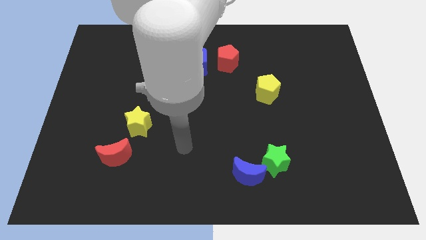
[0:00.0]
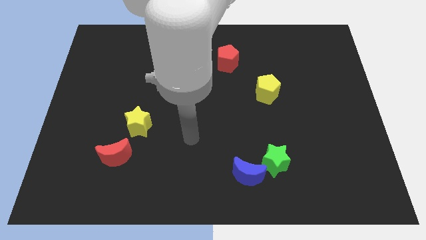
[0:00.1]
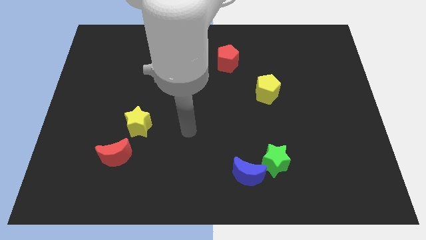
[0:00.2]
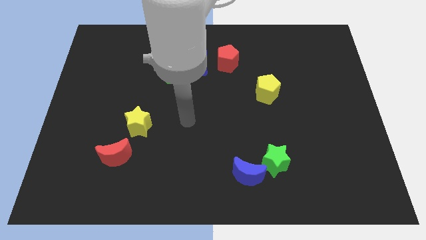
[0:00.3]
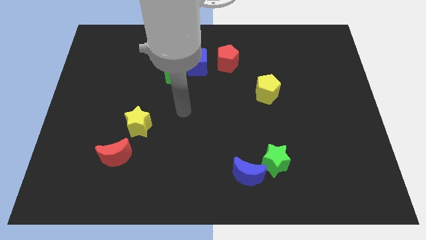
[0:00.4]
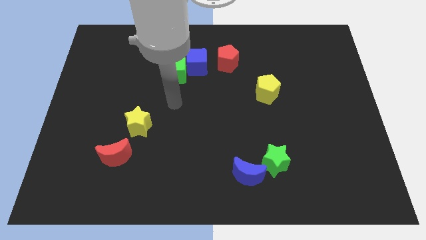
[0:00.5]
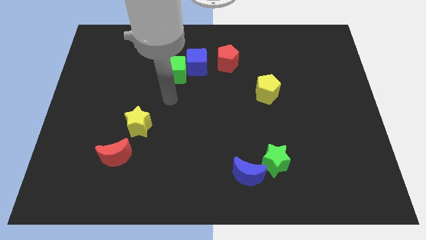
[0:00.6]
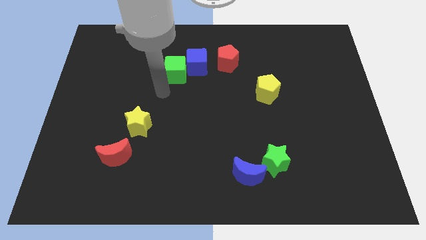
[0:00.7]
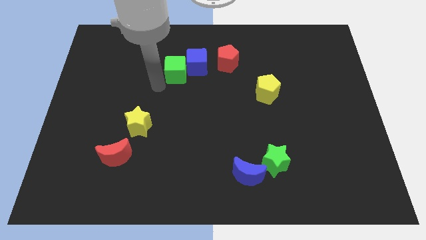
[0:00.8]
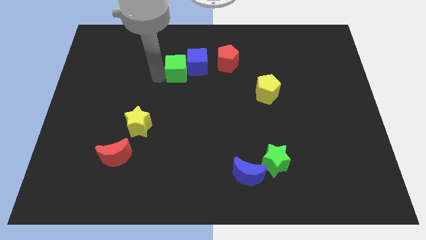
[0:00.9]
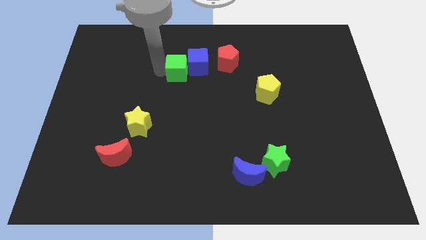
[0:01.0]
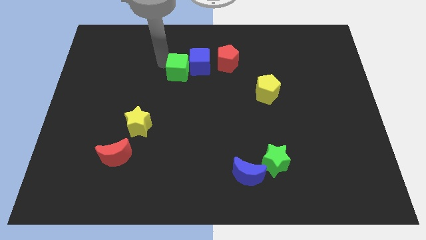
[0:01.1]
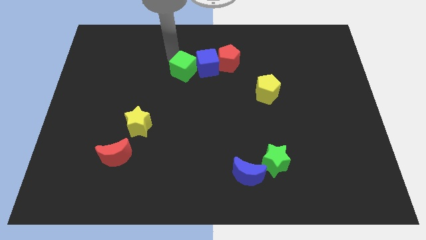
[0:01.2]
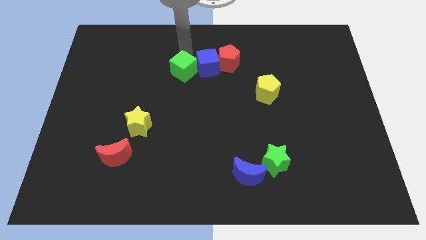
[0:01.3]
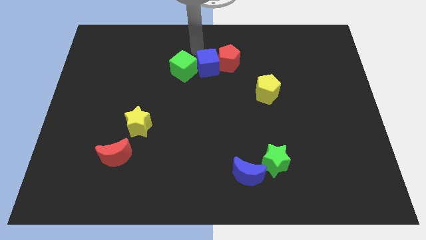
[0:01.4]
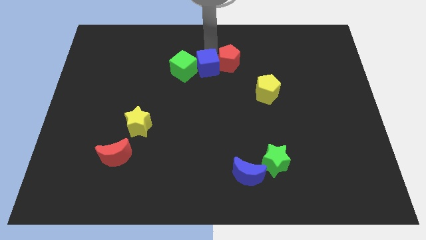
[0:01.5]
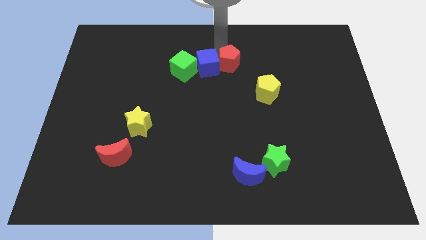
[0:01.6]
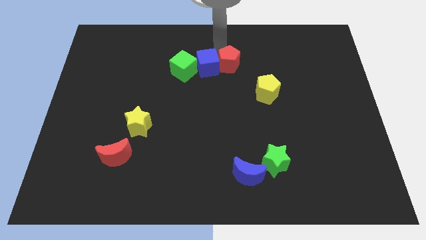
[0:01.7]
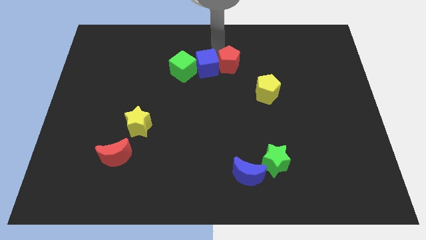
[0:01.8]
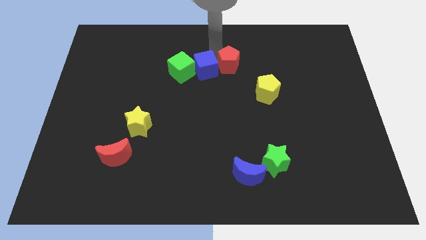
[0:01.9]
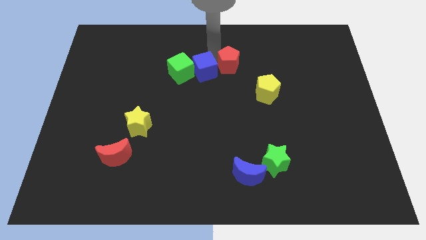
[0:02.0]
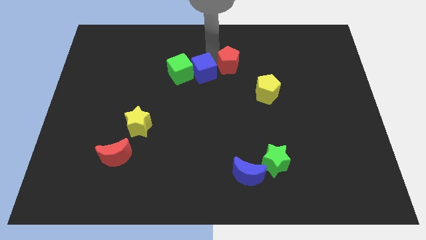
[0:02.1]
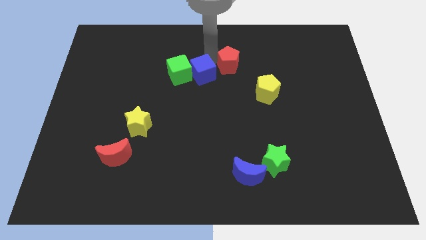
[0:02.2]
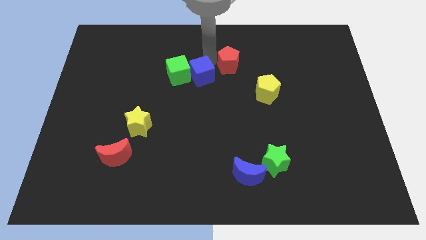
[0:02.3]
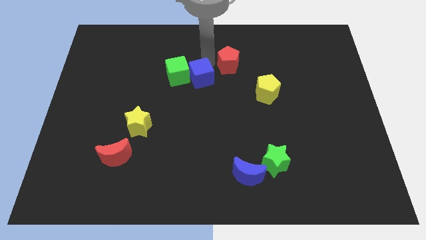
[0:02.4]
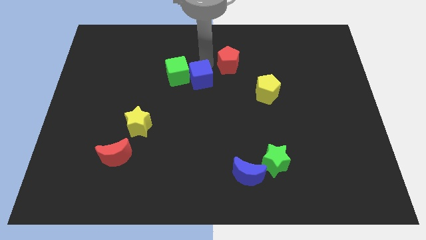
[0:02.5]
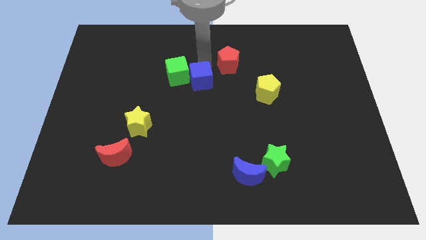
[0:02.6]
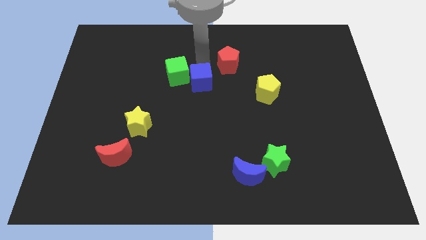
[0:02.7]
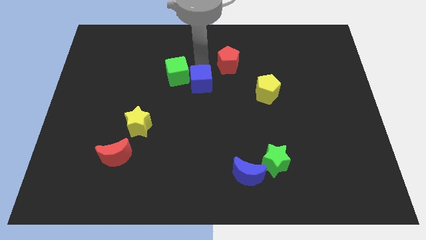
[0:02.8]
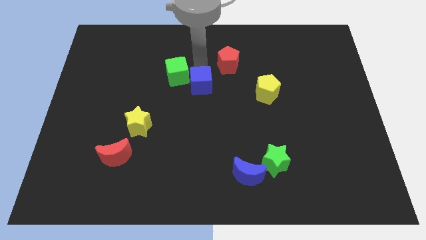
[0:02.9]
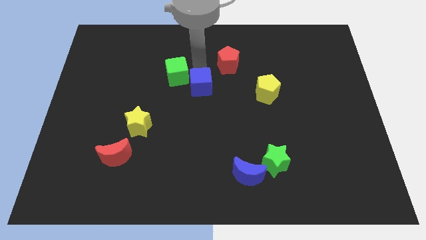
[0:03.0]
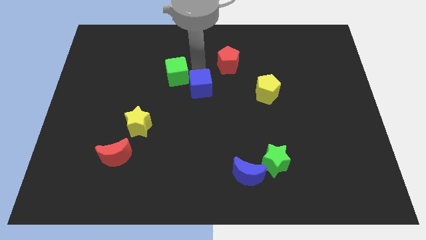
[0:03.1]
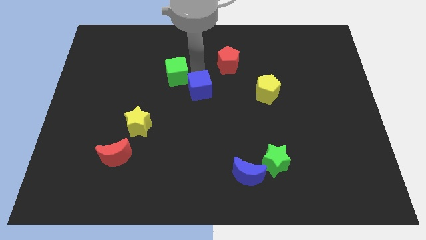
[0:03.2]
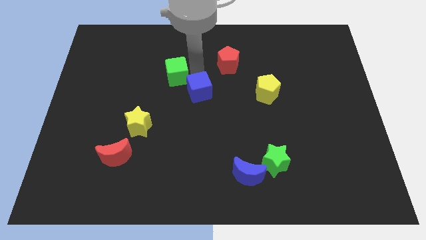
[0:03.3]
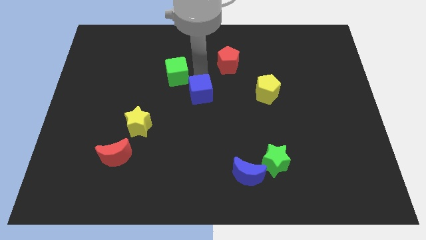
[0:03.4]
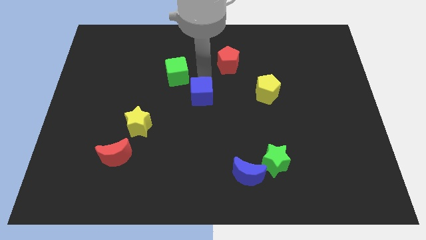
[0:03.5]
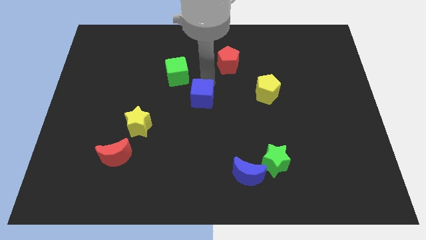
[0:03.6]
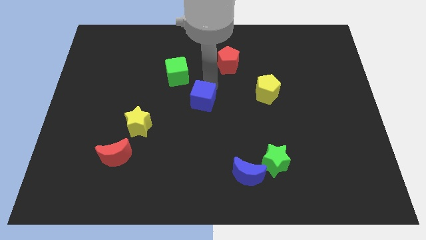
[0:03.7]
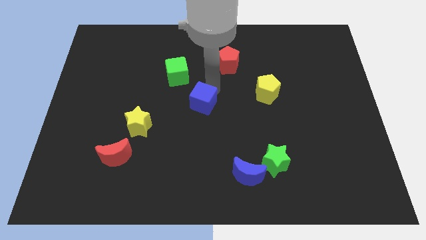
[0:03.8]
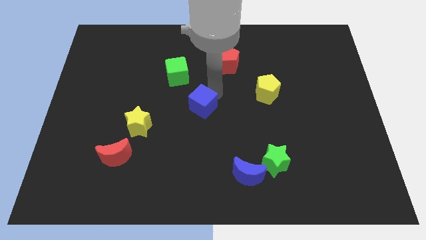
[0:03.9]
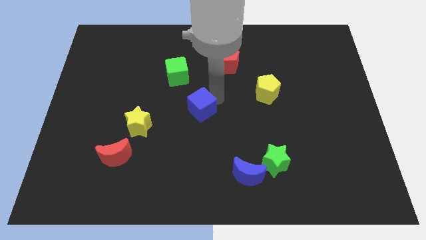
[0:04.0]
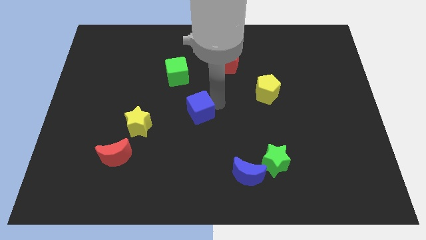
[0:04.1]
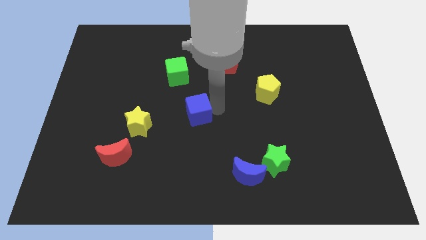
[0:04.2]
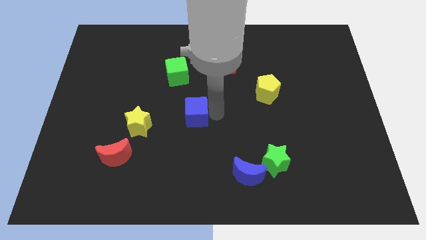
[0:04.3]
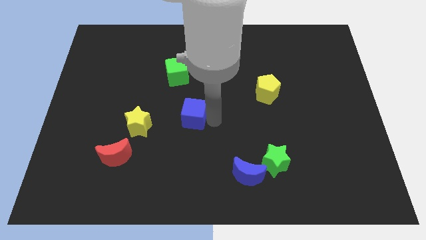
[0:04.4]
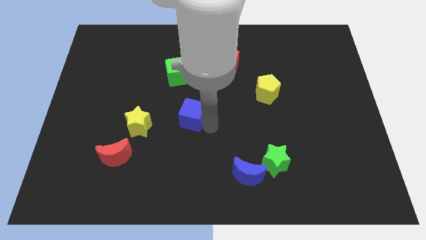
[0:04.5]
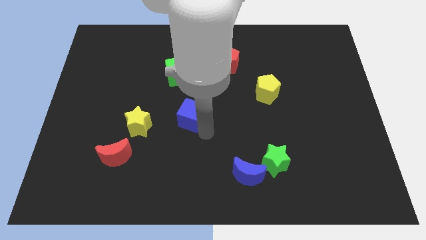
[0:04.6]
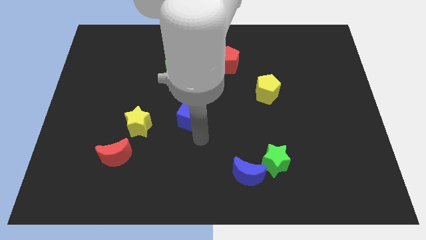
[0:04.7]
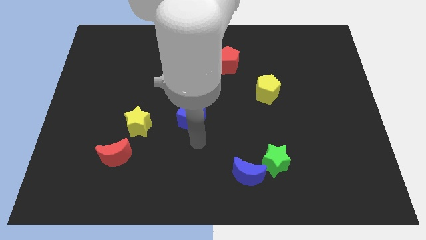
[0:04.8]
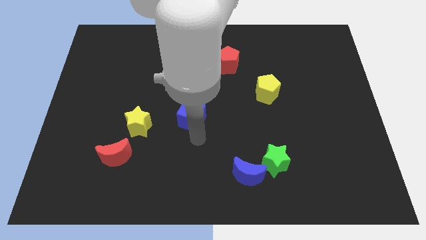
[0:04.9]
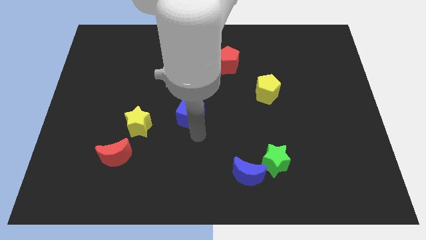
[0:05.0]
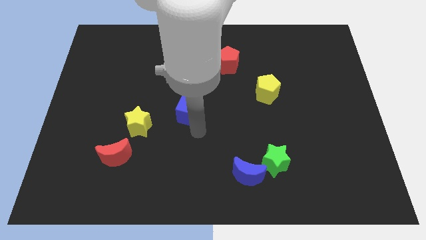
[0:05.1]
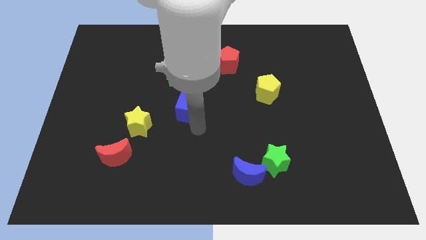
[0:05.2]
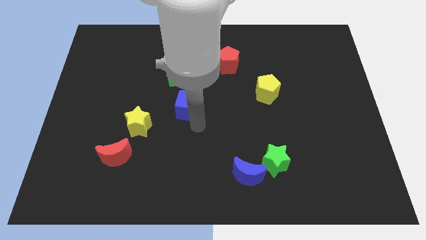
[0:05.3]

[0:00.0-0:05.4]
put the blue cube to the top right side of the yellow star

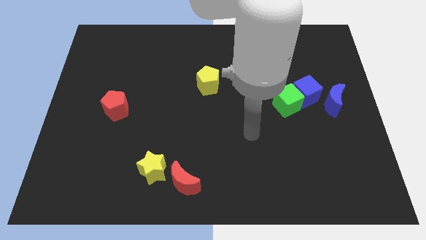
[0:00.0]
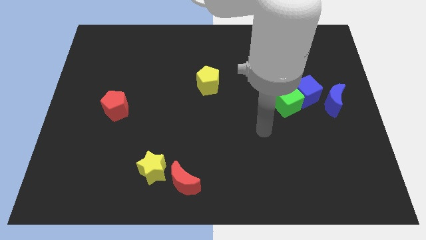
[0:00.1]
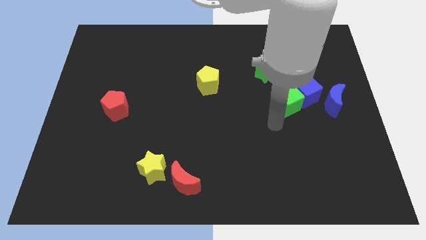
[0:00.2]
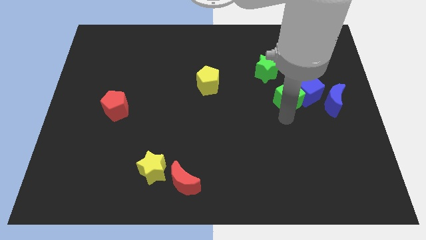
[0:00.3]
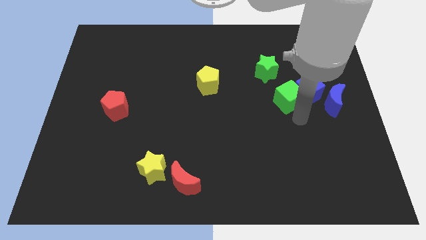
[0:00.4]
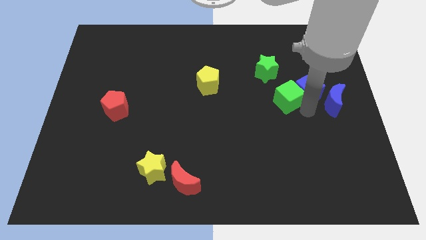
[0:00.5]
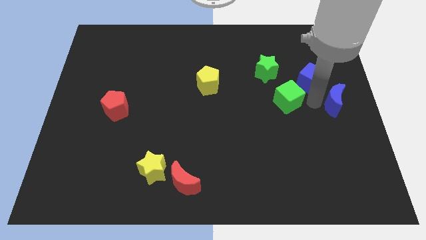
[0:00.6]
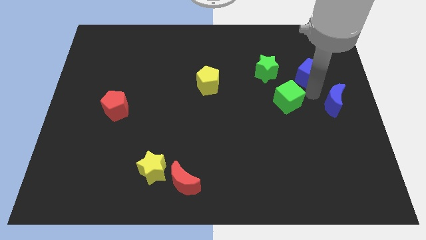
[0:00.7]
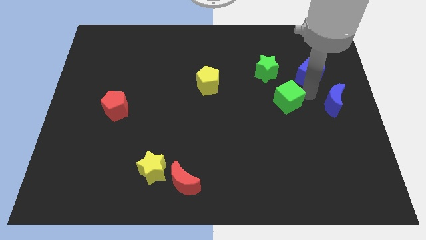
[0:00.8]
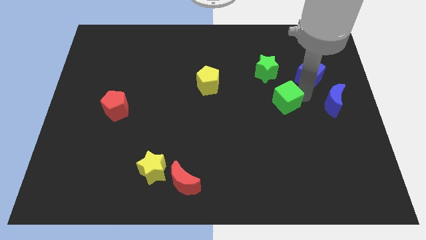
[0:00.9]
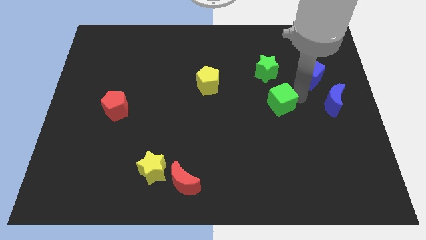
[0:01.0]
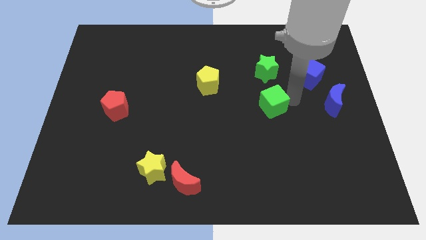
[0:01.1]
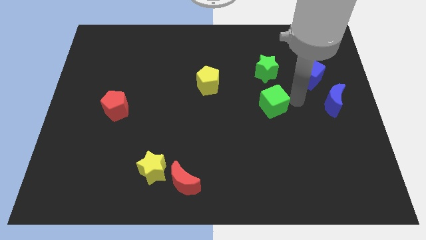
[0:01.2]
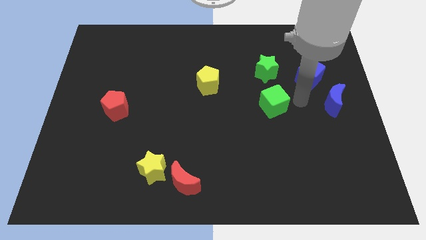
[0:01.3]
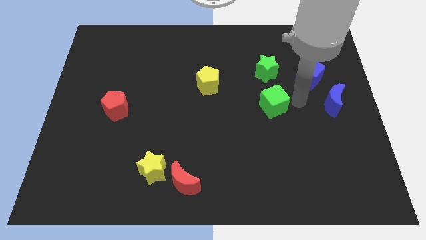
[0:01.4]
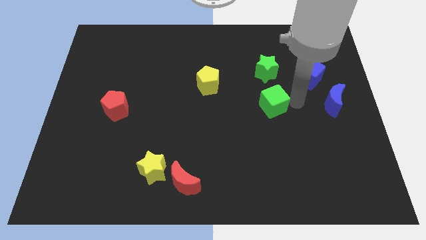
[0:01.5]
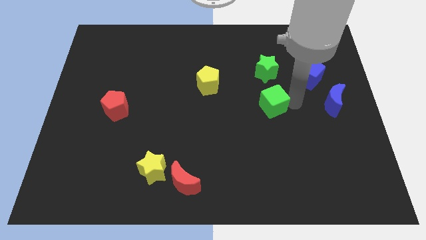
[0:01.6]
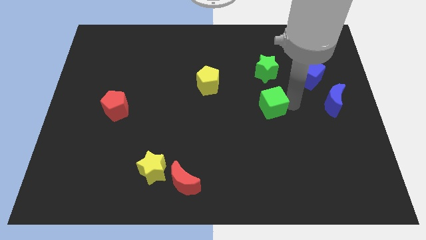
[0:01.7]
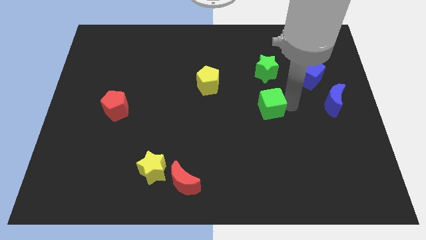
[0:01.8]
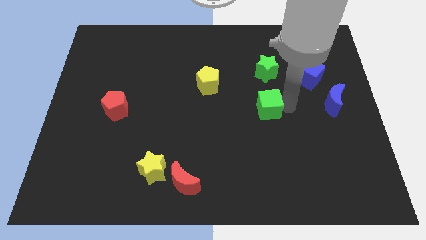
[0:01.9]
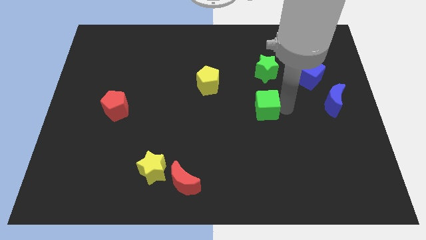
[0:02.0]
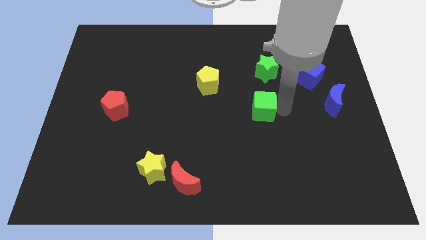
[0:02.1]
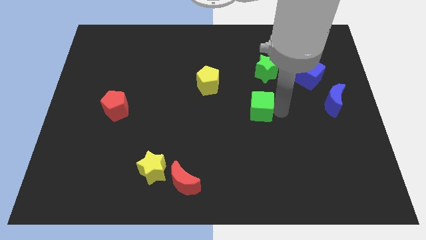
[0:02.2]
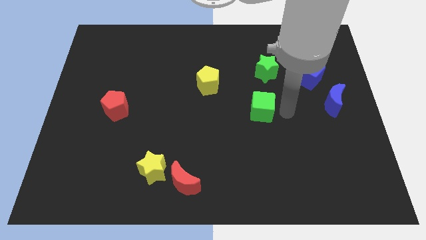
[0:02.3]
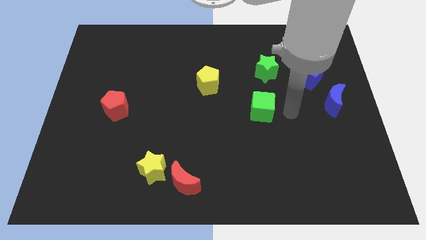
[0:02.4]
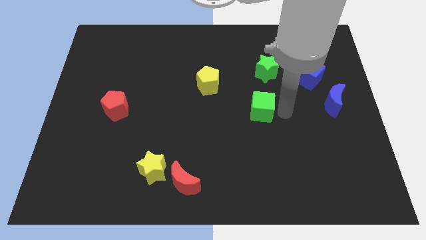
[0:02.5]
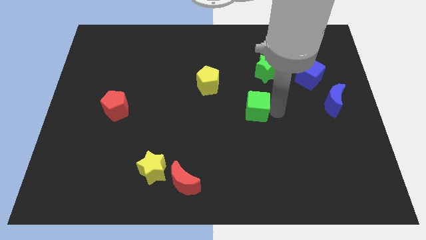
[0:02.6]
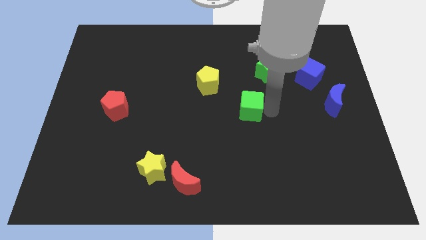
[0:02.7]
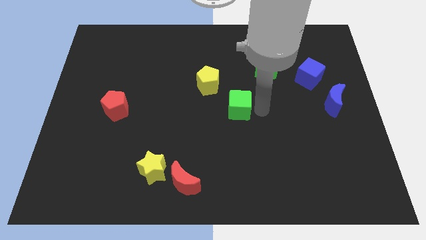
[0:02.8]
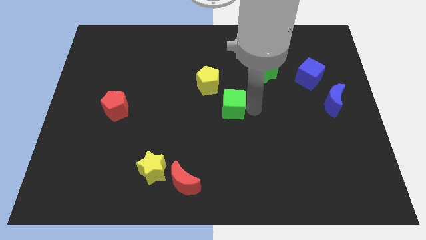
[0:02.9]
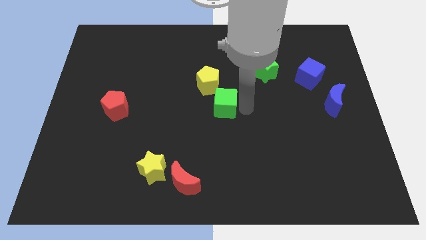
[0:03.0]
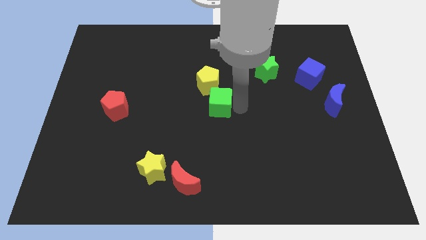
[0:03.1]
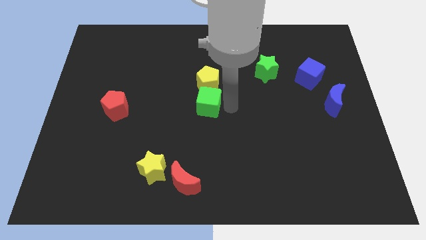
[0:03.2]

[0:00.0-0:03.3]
slide the green cube to the bottom left side of the yellow pentagon
